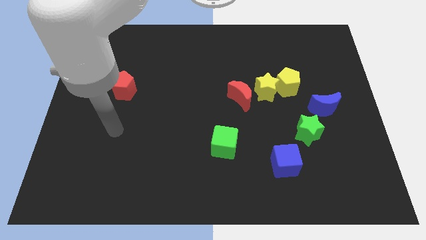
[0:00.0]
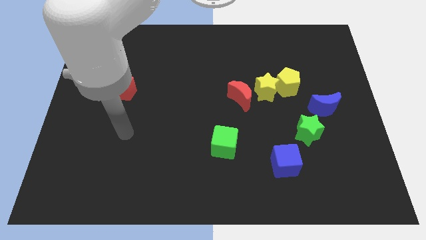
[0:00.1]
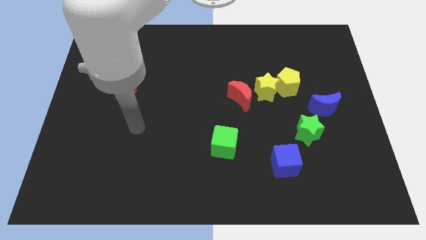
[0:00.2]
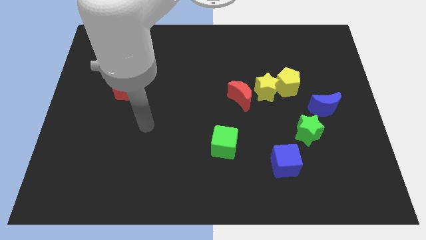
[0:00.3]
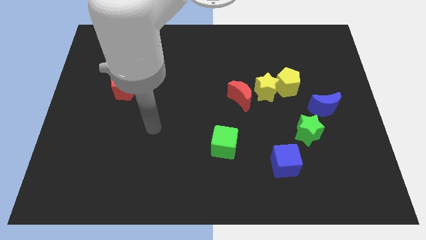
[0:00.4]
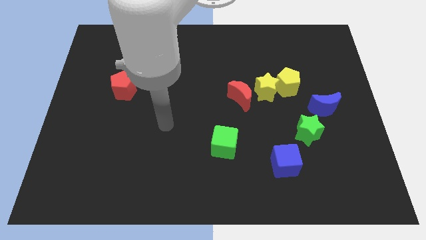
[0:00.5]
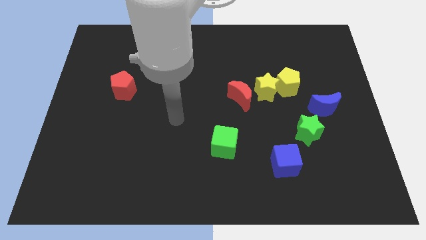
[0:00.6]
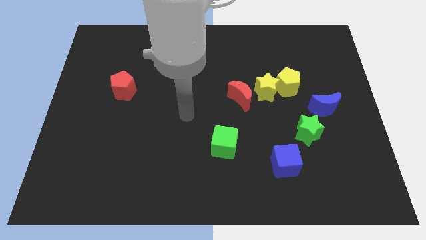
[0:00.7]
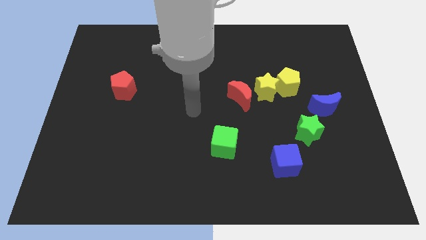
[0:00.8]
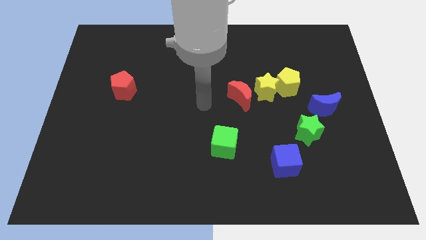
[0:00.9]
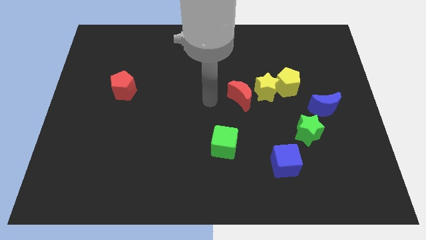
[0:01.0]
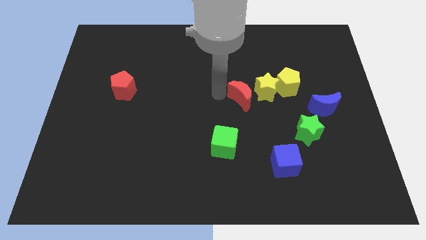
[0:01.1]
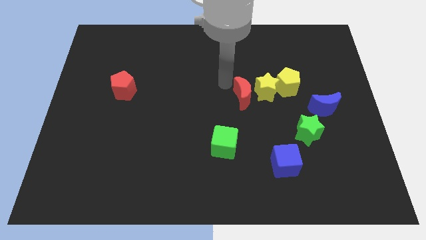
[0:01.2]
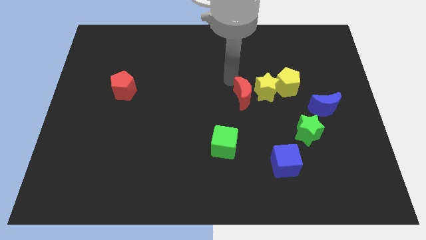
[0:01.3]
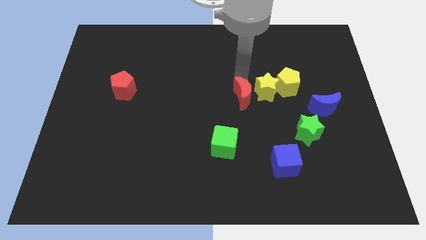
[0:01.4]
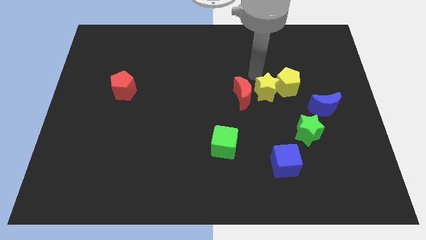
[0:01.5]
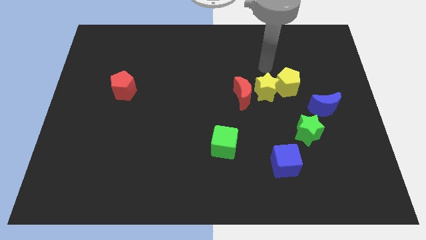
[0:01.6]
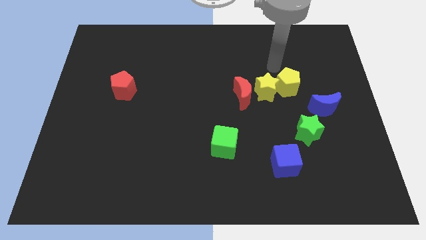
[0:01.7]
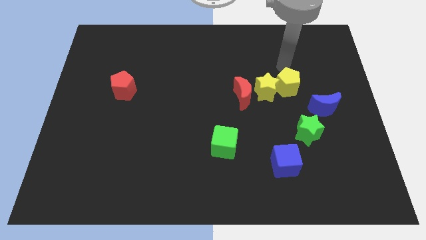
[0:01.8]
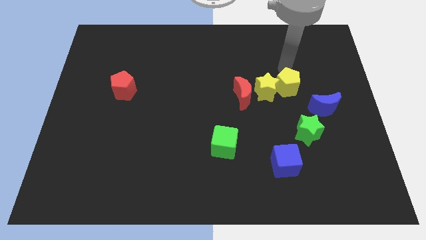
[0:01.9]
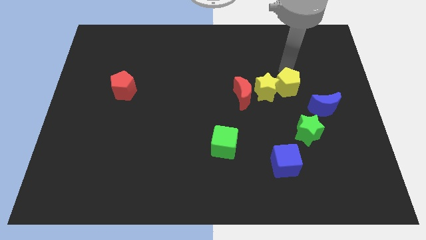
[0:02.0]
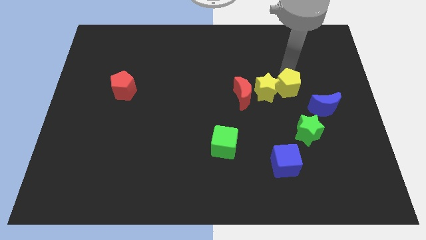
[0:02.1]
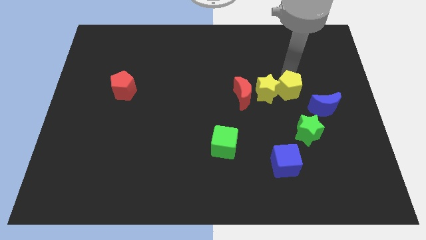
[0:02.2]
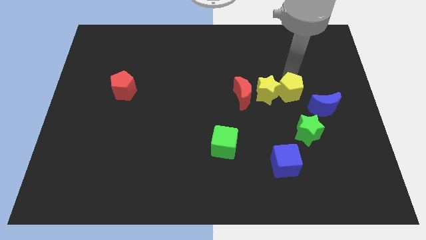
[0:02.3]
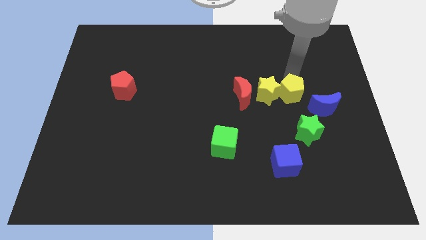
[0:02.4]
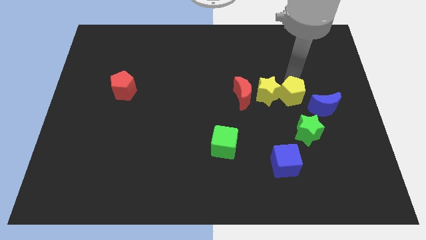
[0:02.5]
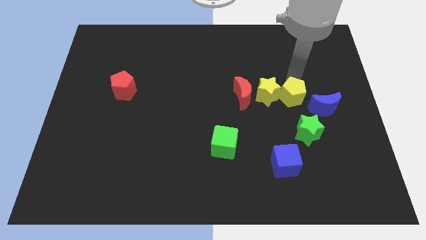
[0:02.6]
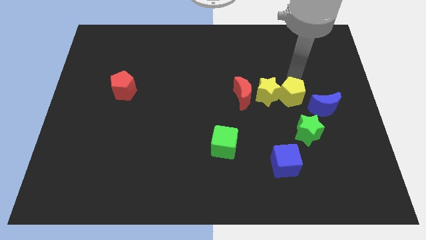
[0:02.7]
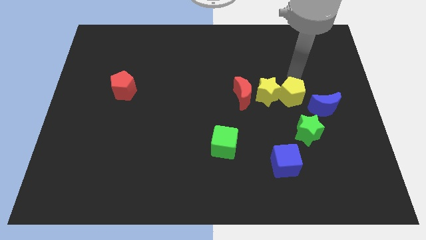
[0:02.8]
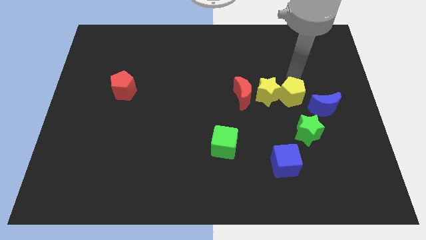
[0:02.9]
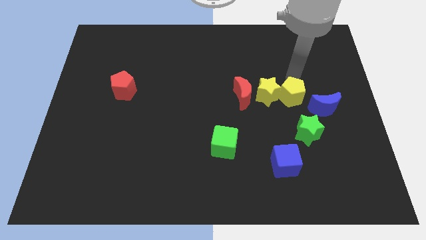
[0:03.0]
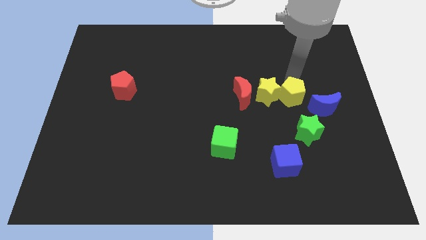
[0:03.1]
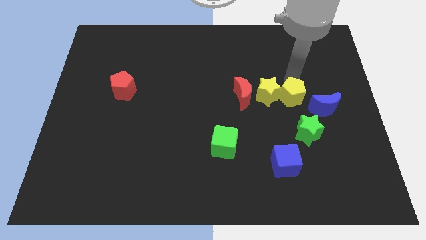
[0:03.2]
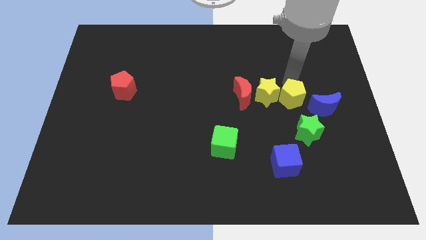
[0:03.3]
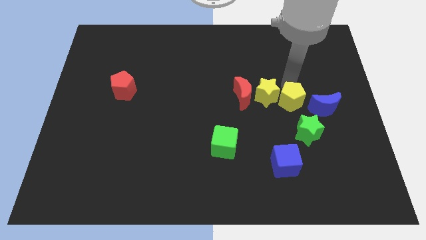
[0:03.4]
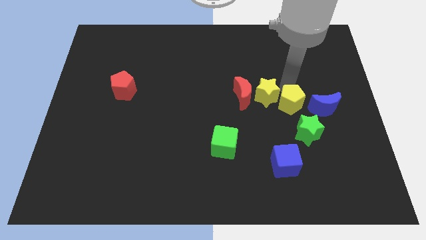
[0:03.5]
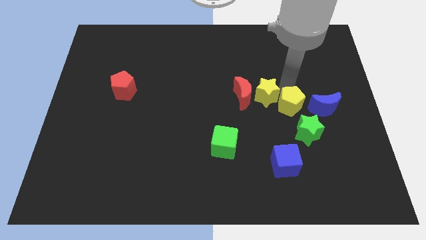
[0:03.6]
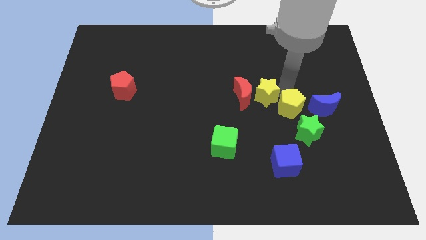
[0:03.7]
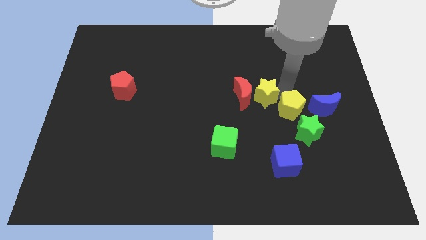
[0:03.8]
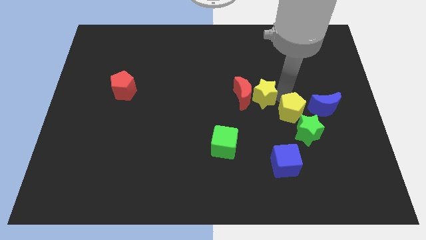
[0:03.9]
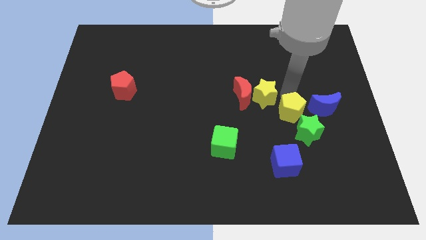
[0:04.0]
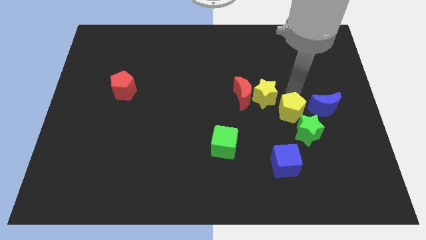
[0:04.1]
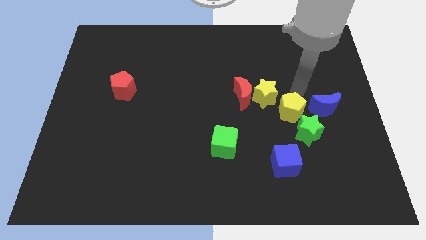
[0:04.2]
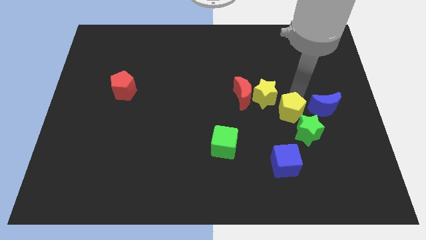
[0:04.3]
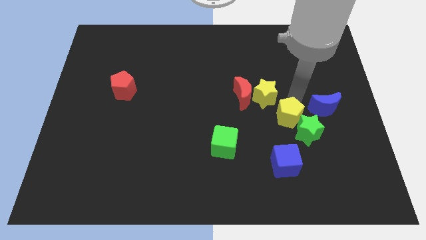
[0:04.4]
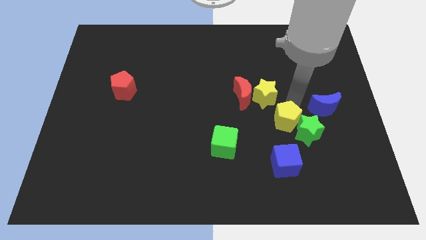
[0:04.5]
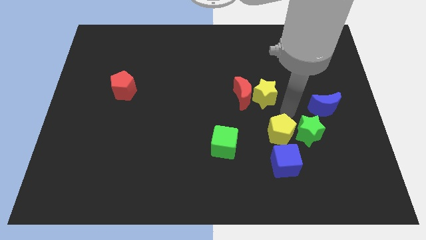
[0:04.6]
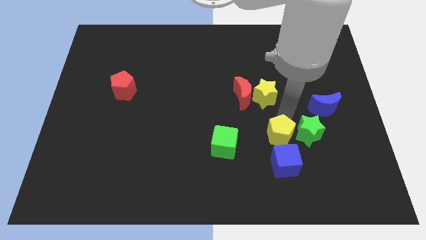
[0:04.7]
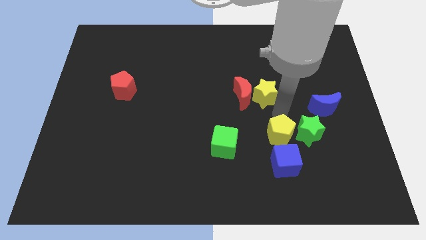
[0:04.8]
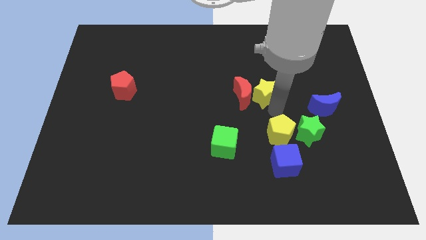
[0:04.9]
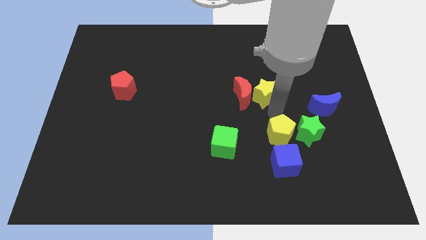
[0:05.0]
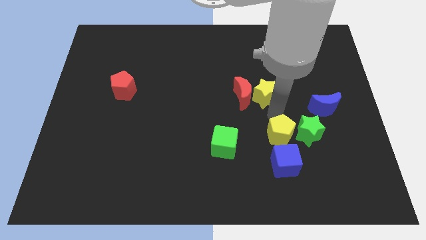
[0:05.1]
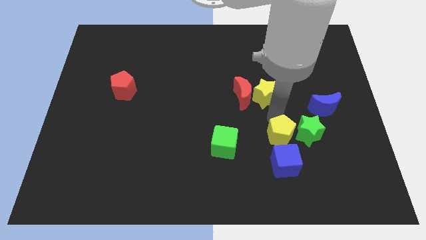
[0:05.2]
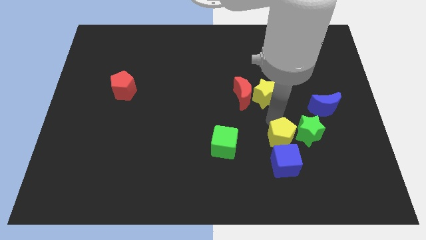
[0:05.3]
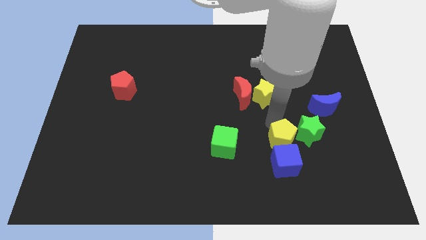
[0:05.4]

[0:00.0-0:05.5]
move the yellow pentagon towards the blue cube

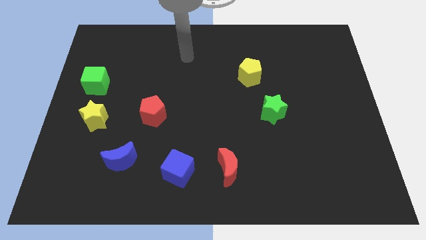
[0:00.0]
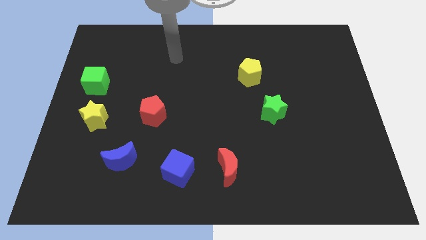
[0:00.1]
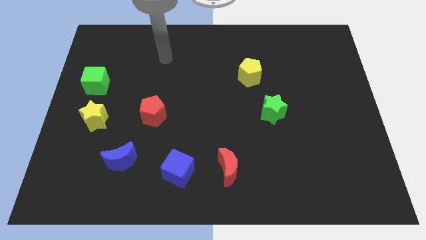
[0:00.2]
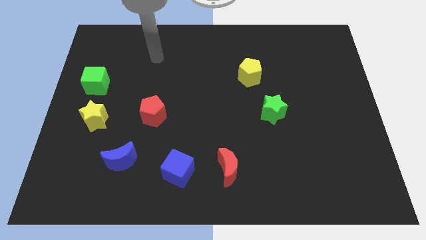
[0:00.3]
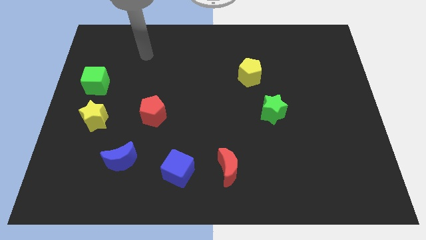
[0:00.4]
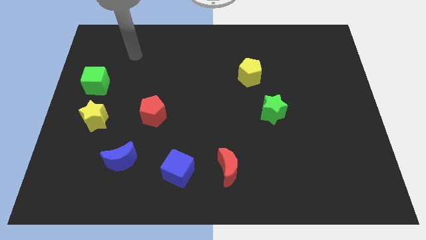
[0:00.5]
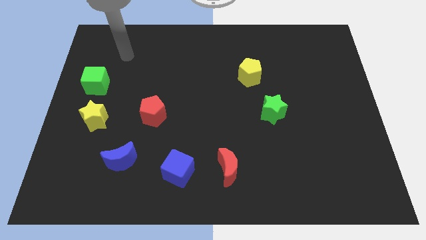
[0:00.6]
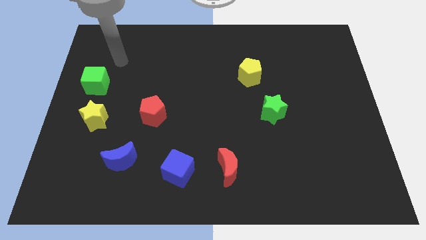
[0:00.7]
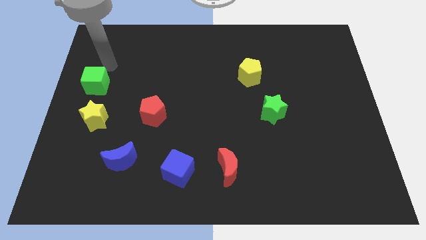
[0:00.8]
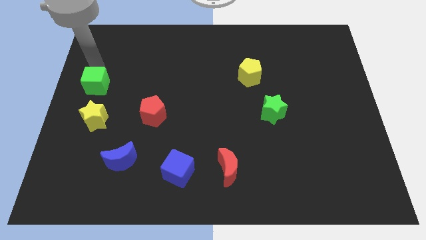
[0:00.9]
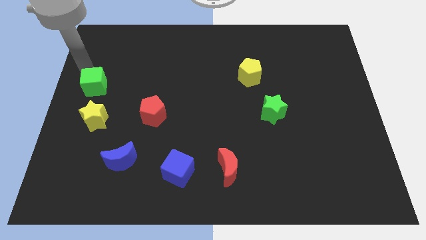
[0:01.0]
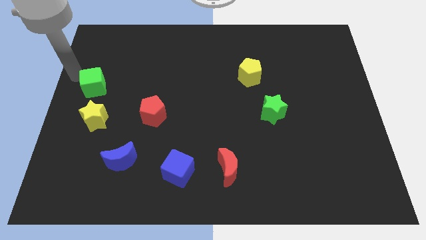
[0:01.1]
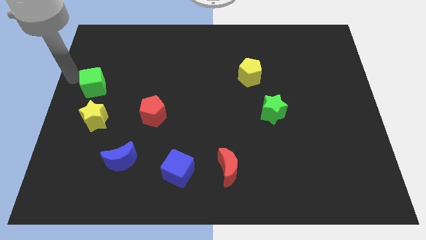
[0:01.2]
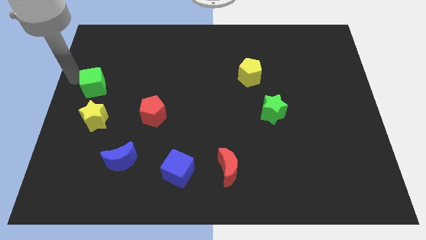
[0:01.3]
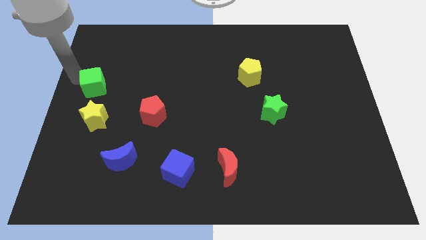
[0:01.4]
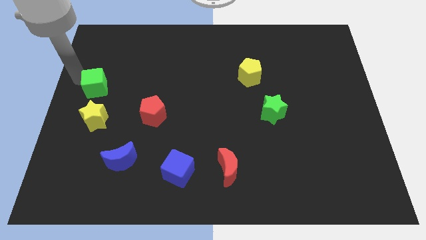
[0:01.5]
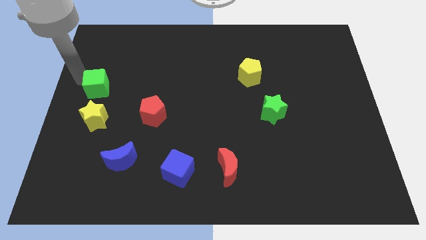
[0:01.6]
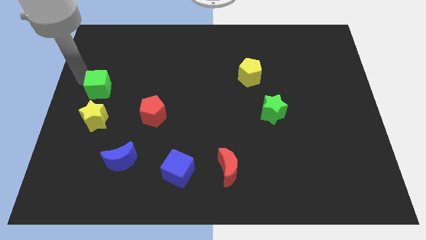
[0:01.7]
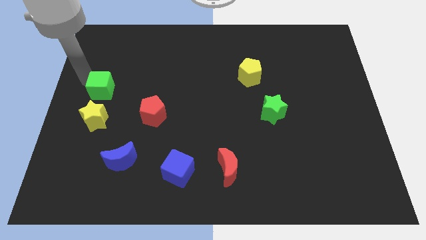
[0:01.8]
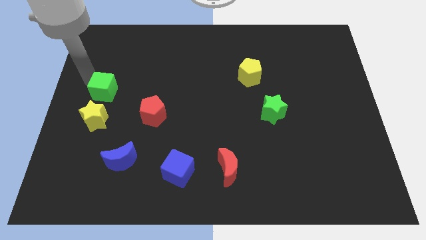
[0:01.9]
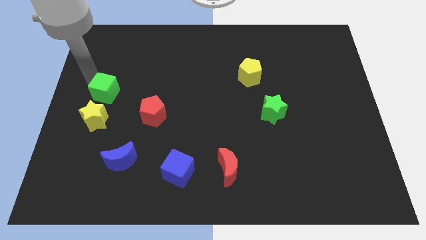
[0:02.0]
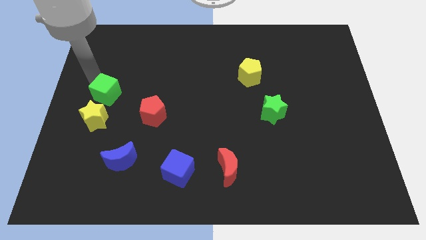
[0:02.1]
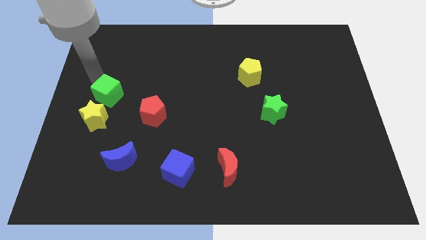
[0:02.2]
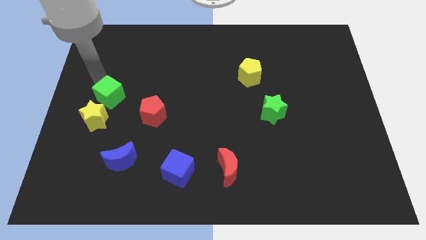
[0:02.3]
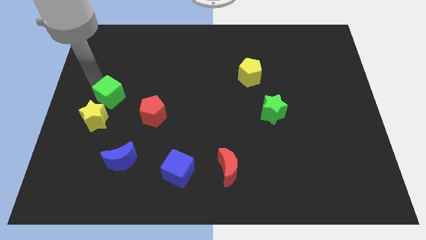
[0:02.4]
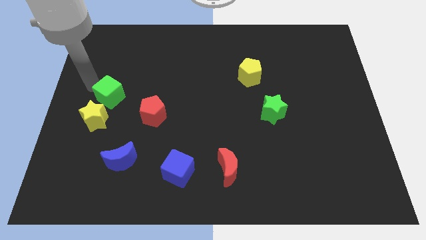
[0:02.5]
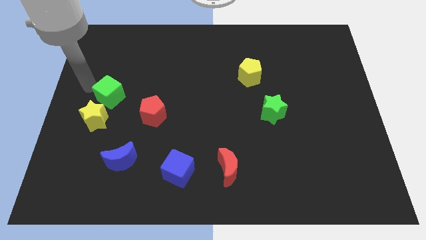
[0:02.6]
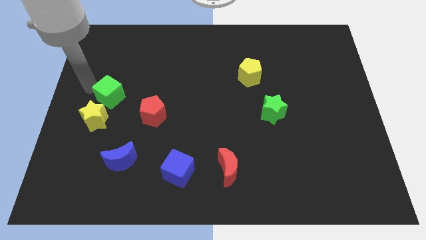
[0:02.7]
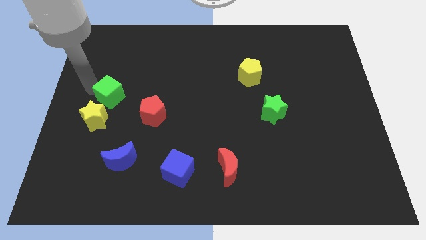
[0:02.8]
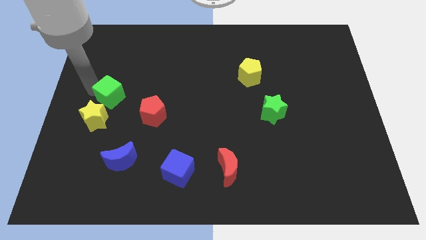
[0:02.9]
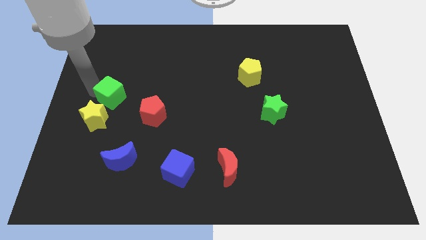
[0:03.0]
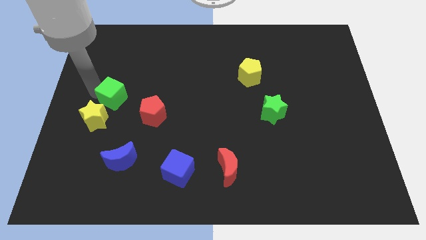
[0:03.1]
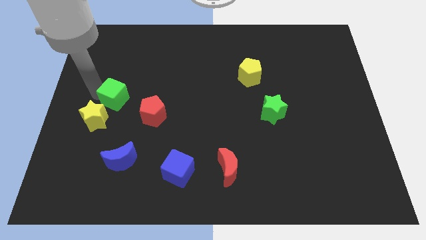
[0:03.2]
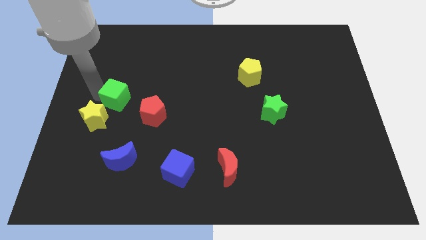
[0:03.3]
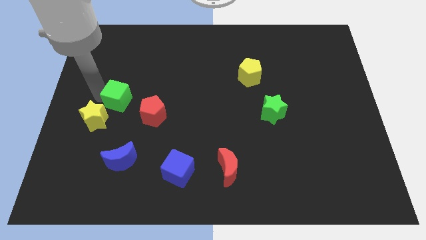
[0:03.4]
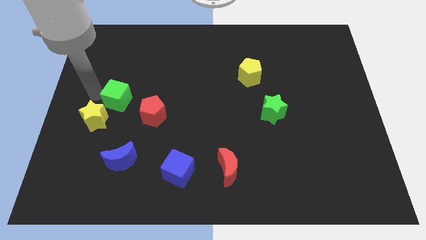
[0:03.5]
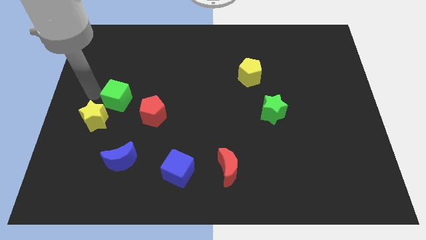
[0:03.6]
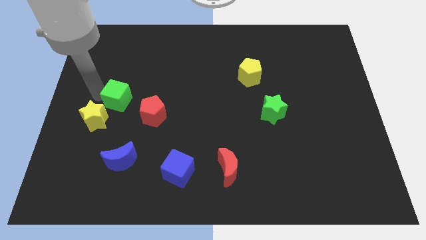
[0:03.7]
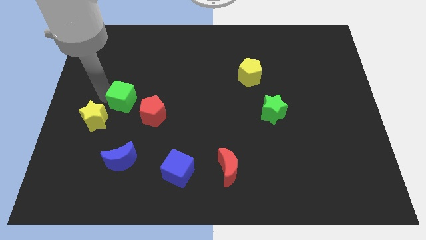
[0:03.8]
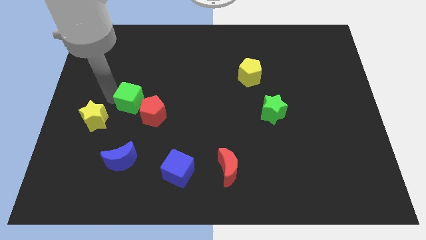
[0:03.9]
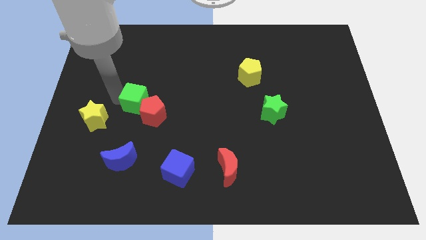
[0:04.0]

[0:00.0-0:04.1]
move the green cube next to the red pentagon
